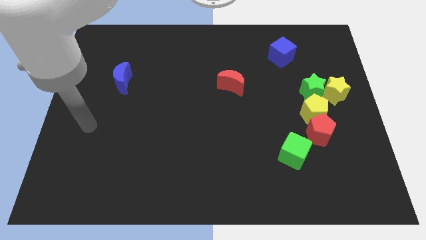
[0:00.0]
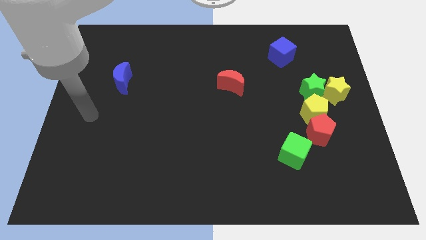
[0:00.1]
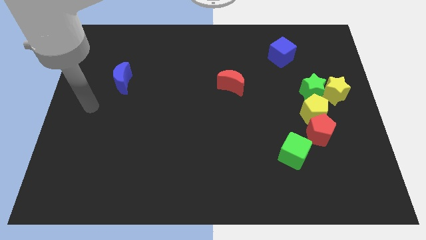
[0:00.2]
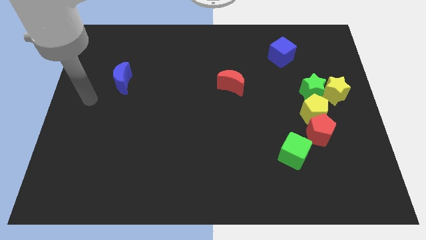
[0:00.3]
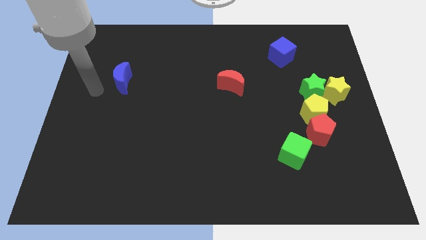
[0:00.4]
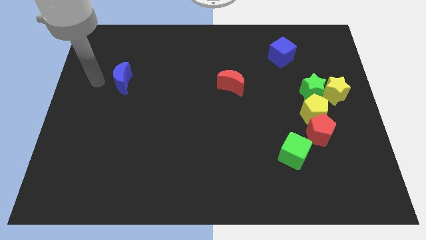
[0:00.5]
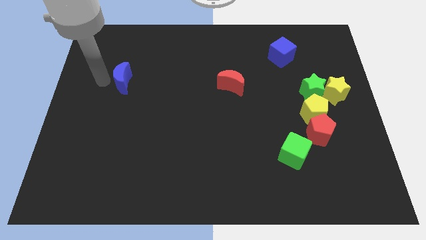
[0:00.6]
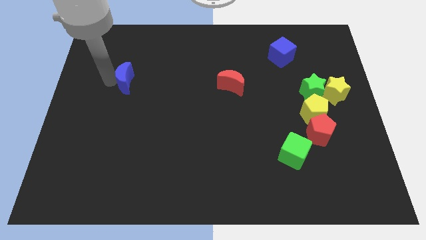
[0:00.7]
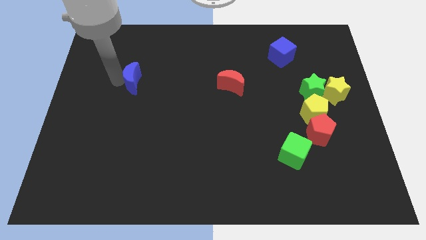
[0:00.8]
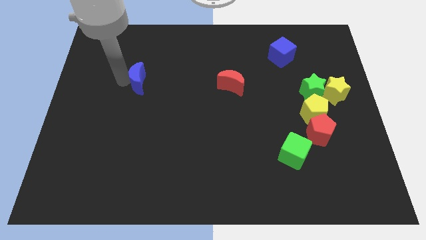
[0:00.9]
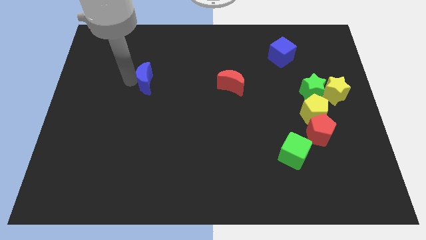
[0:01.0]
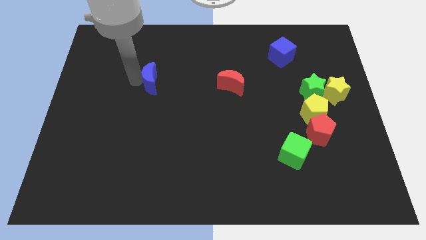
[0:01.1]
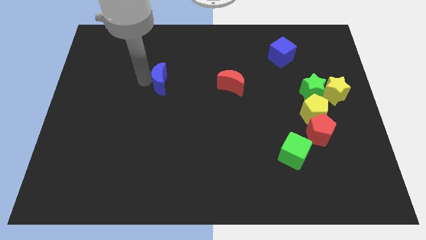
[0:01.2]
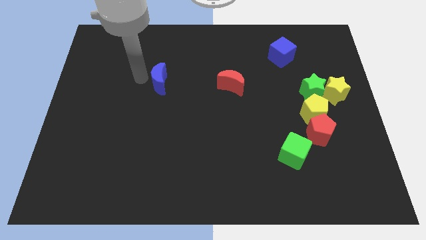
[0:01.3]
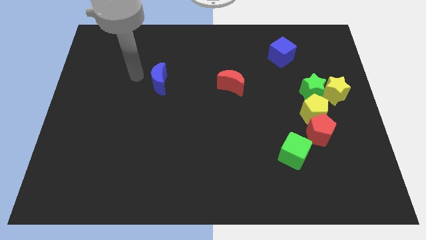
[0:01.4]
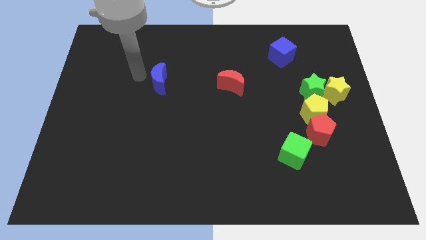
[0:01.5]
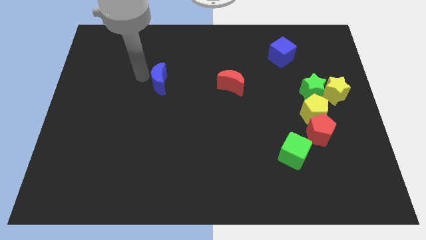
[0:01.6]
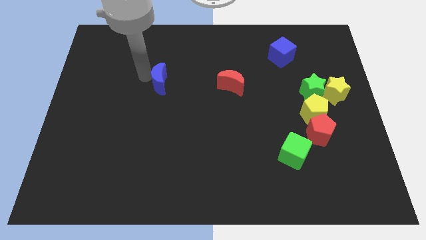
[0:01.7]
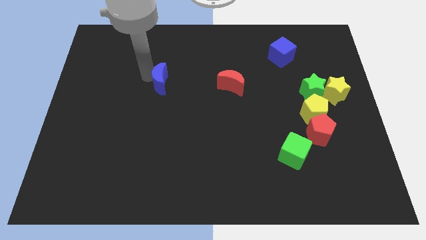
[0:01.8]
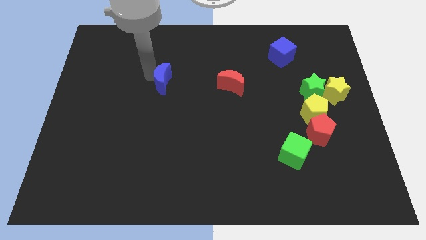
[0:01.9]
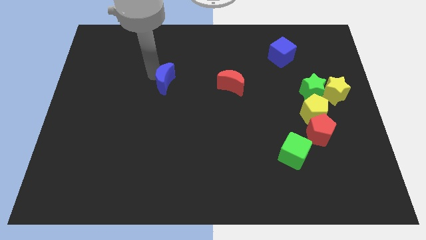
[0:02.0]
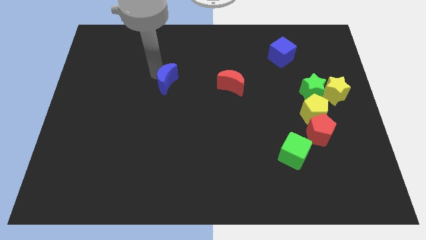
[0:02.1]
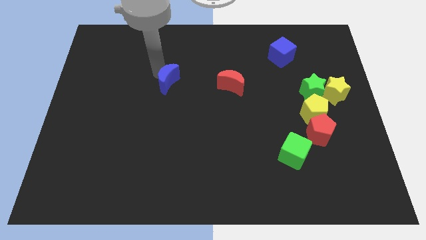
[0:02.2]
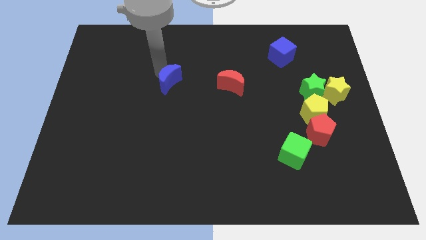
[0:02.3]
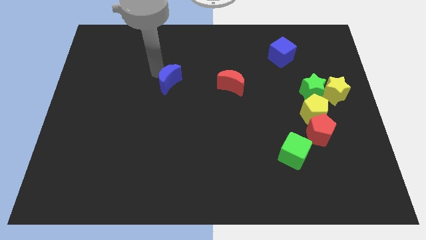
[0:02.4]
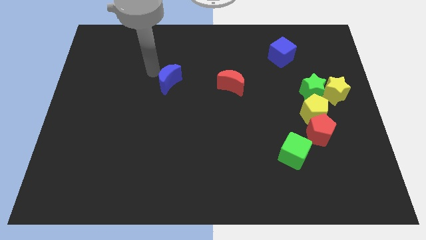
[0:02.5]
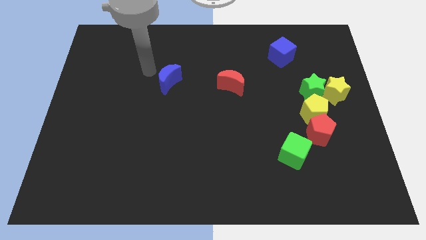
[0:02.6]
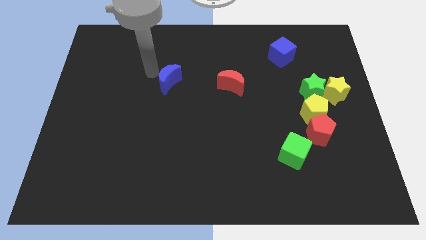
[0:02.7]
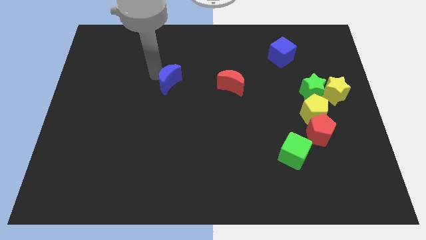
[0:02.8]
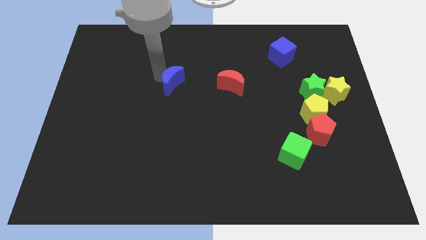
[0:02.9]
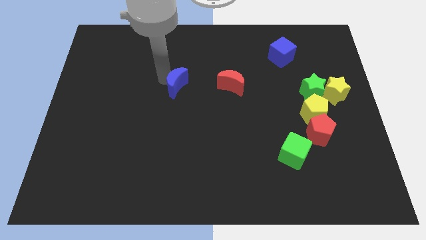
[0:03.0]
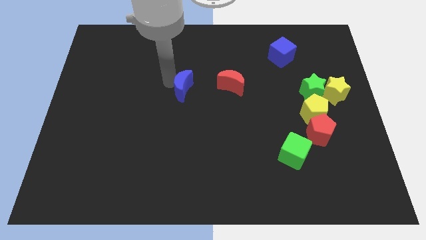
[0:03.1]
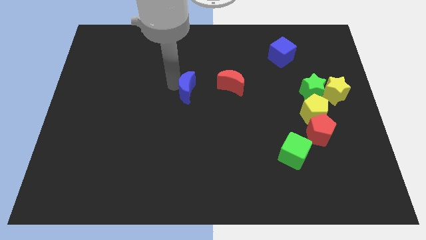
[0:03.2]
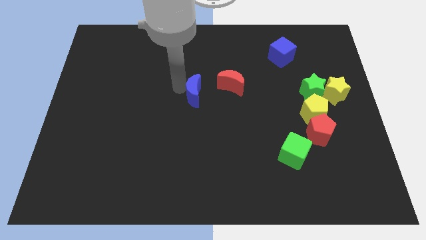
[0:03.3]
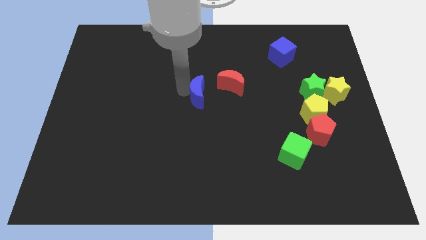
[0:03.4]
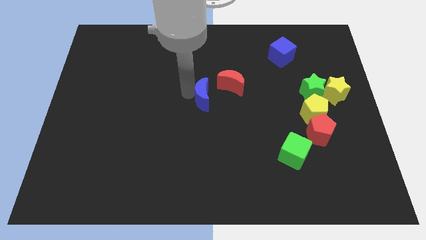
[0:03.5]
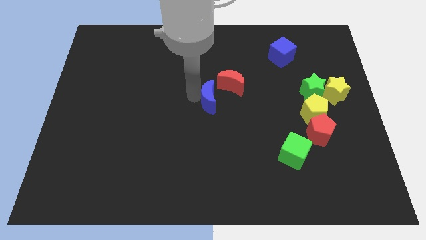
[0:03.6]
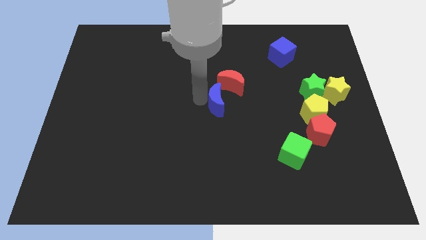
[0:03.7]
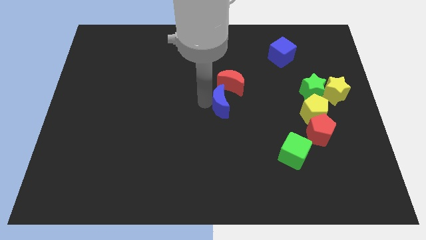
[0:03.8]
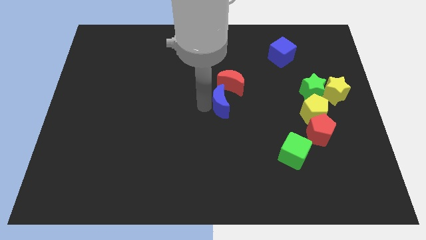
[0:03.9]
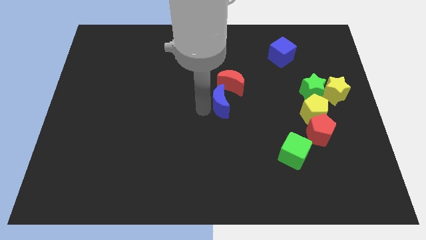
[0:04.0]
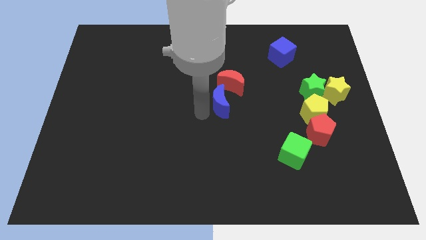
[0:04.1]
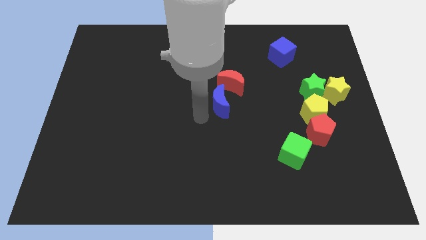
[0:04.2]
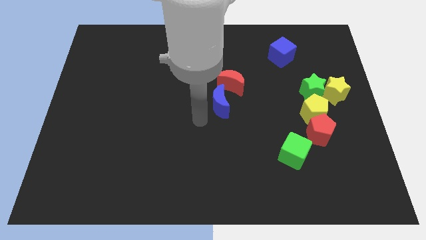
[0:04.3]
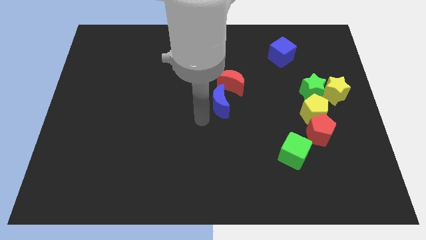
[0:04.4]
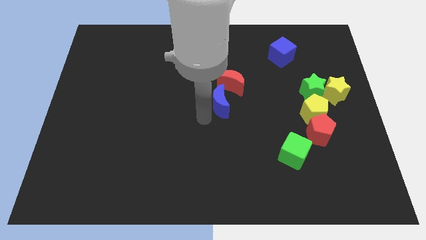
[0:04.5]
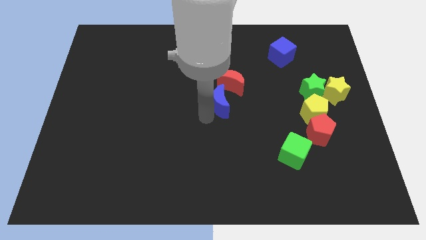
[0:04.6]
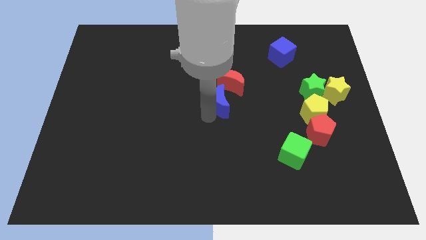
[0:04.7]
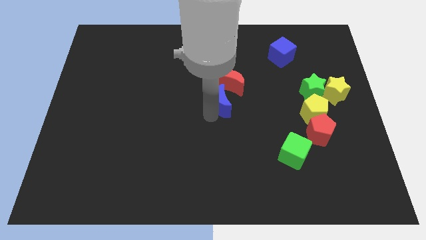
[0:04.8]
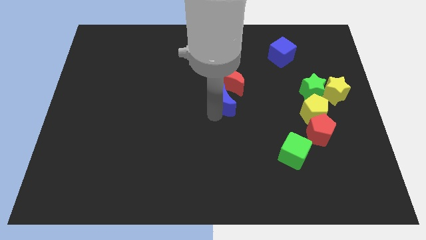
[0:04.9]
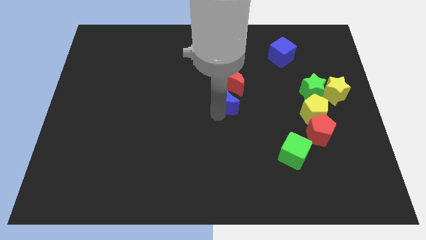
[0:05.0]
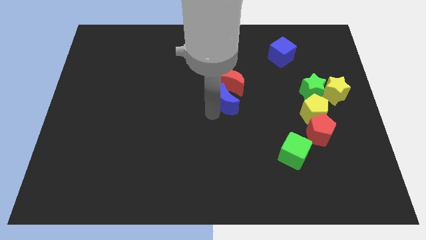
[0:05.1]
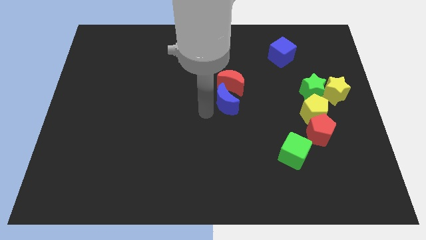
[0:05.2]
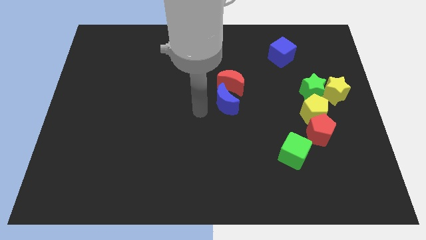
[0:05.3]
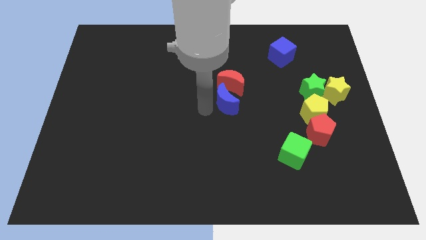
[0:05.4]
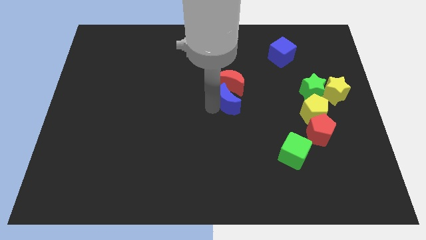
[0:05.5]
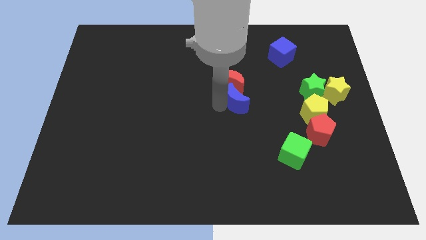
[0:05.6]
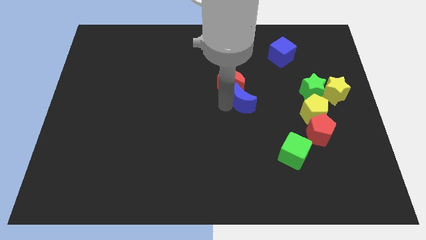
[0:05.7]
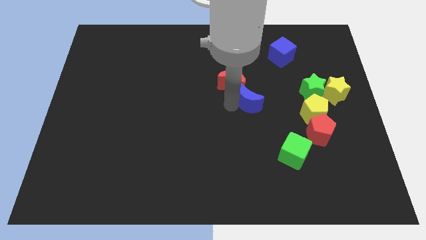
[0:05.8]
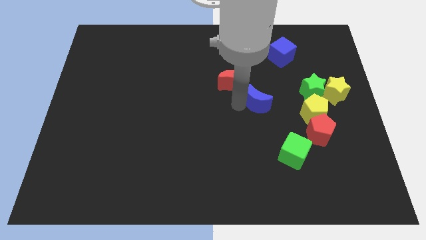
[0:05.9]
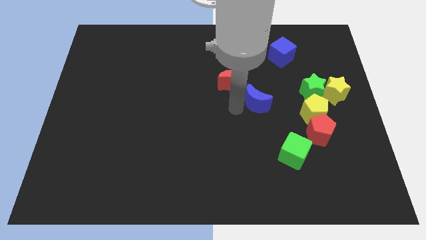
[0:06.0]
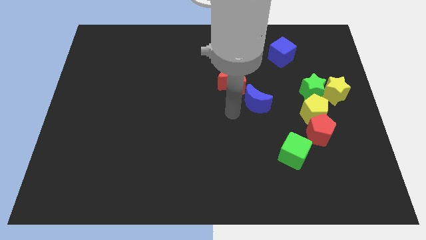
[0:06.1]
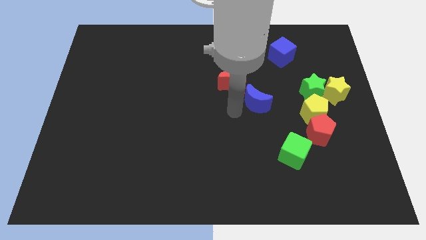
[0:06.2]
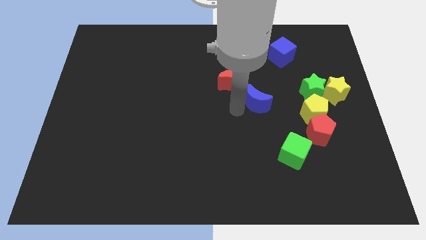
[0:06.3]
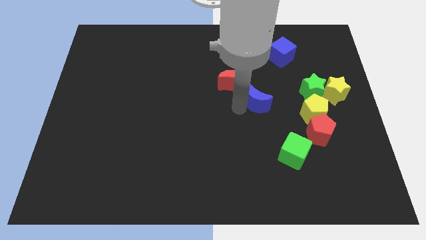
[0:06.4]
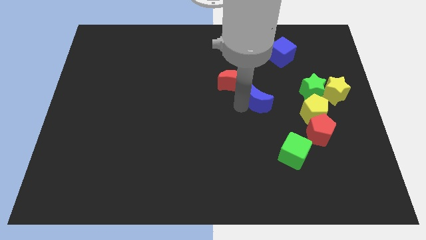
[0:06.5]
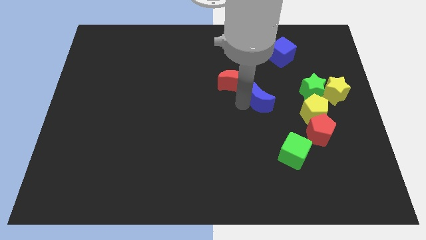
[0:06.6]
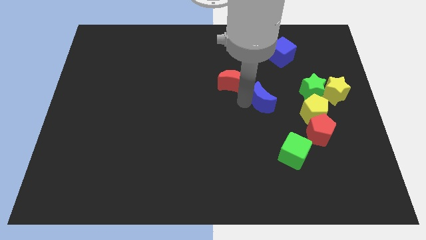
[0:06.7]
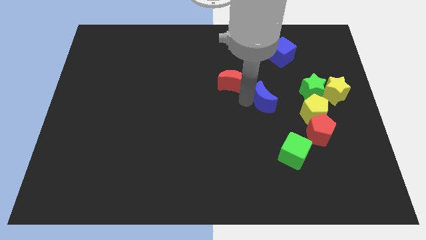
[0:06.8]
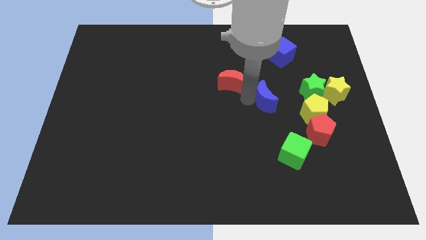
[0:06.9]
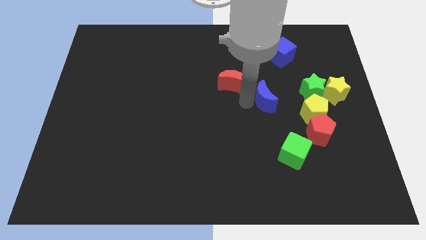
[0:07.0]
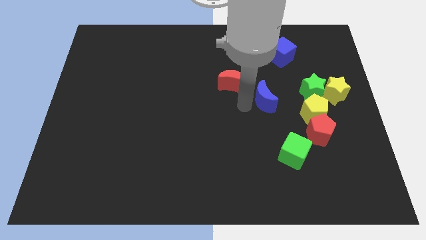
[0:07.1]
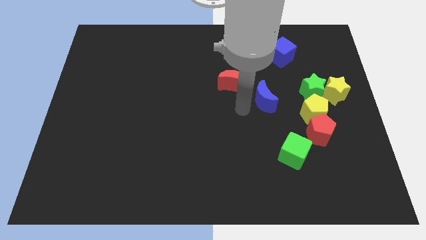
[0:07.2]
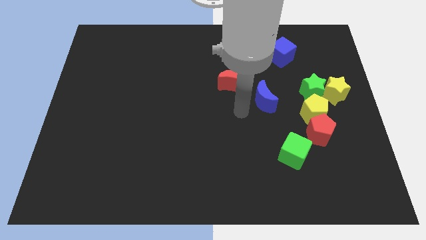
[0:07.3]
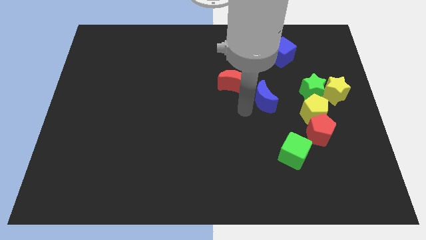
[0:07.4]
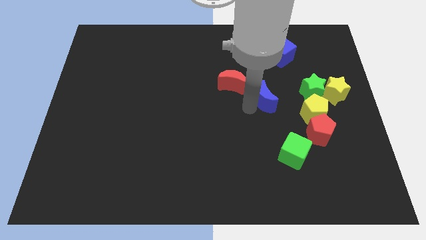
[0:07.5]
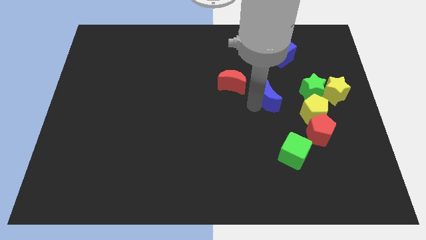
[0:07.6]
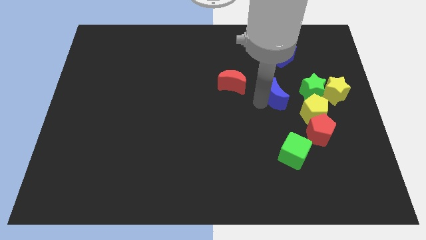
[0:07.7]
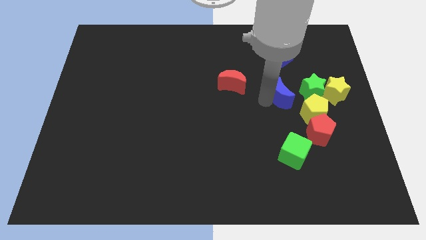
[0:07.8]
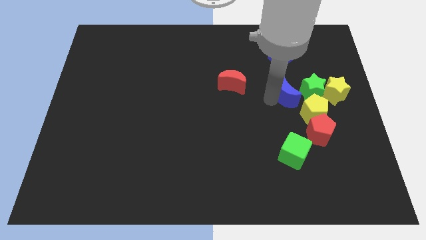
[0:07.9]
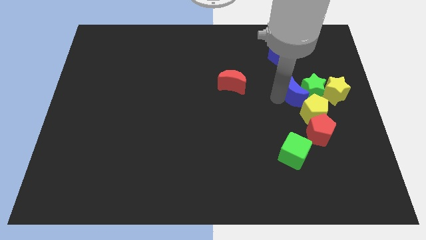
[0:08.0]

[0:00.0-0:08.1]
push the blue moon close to the green star
